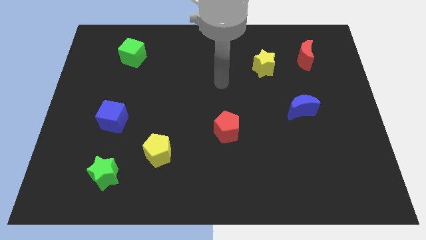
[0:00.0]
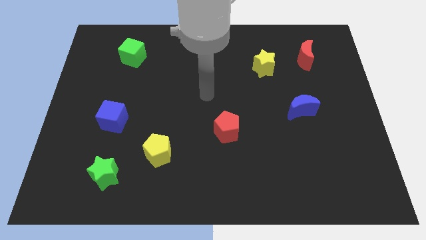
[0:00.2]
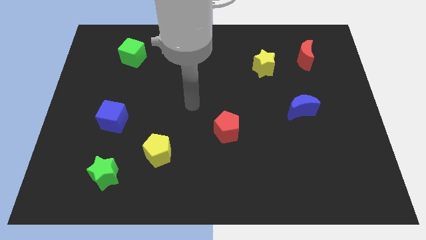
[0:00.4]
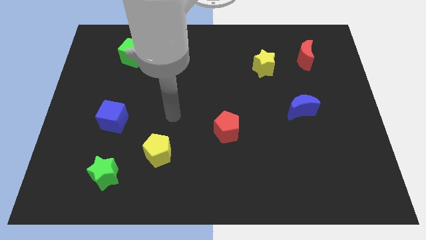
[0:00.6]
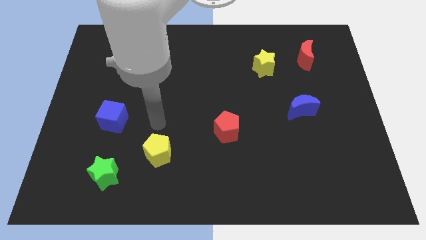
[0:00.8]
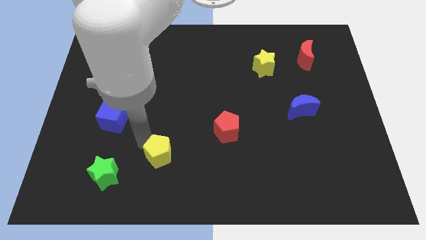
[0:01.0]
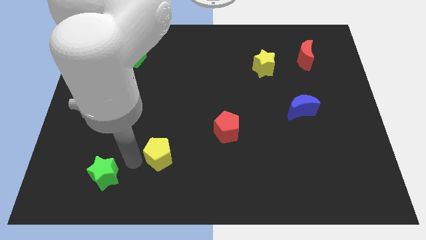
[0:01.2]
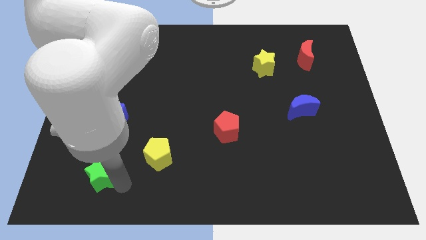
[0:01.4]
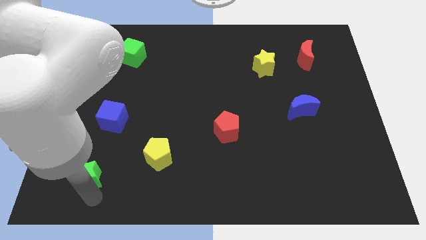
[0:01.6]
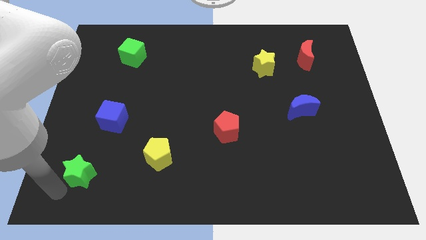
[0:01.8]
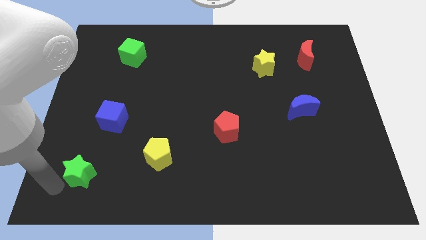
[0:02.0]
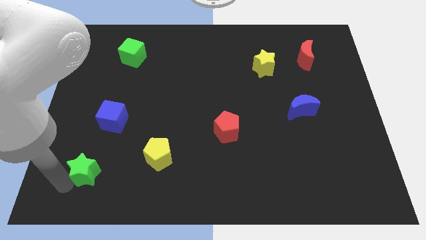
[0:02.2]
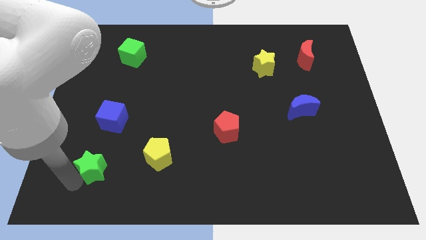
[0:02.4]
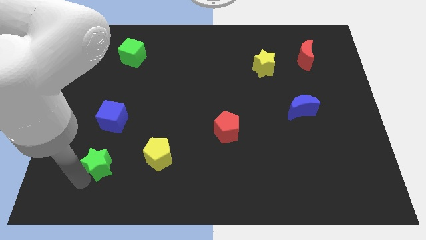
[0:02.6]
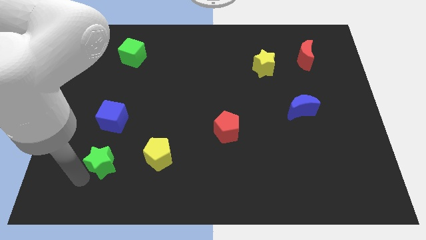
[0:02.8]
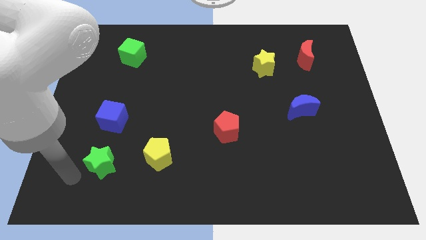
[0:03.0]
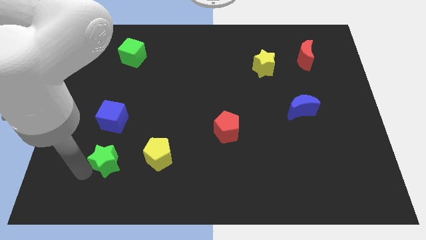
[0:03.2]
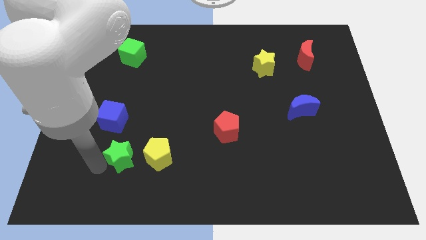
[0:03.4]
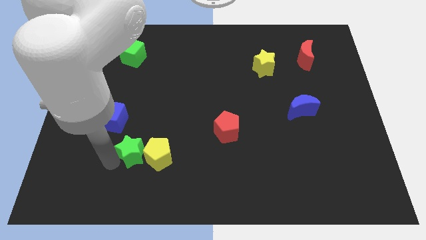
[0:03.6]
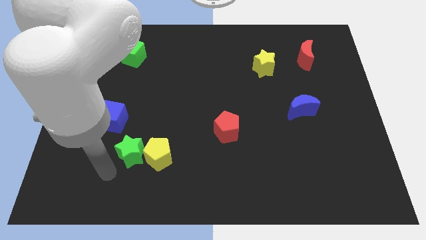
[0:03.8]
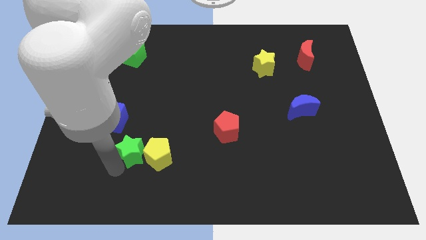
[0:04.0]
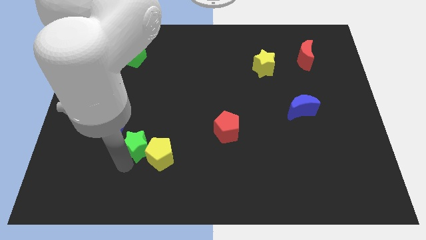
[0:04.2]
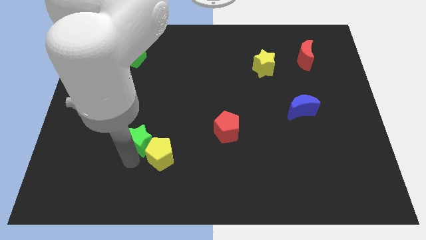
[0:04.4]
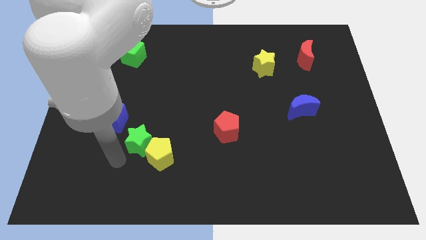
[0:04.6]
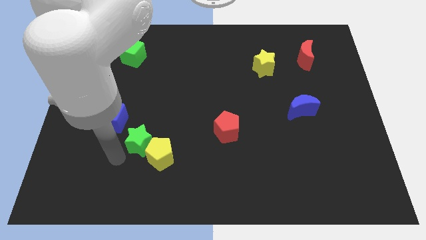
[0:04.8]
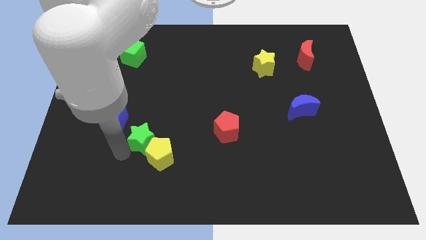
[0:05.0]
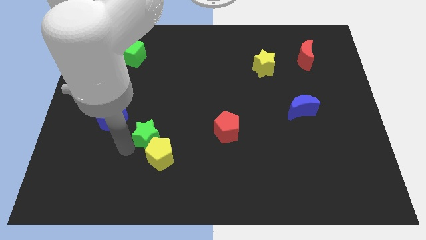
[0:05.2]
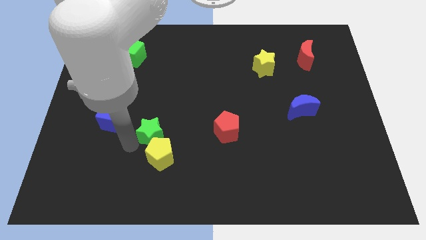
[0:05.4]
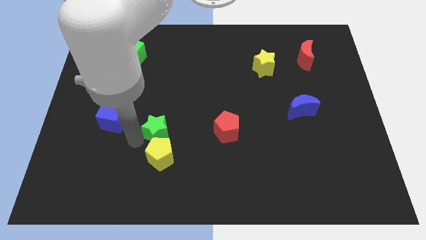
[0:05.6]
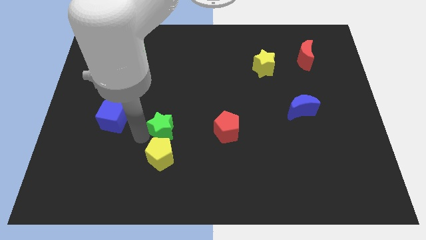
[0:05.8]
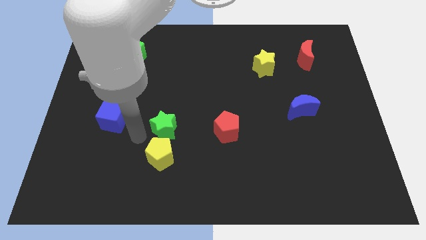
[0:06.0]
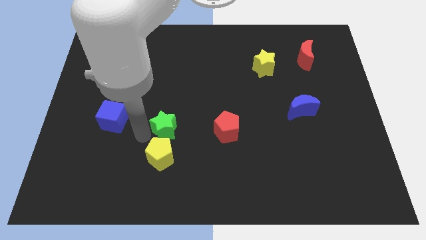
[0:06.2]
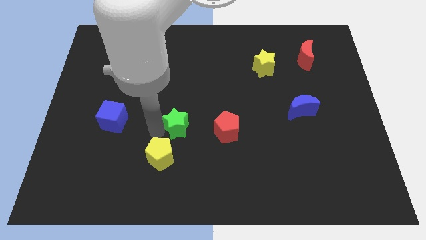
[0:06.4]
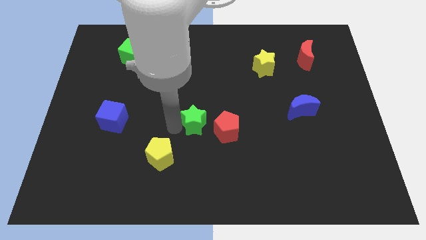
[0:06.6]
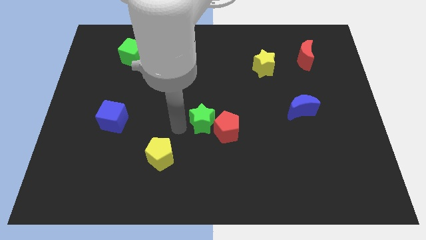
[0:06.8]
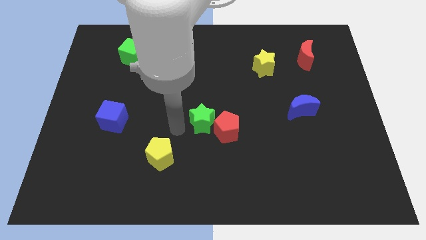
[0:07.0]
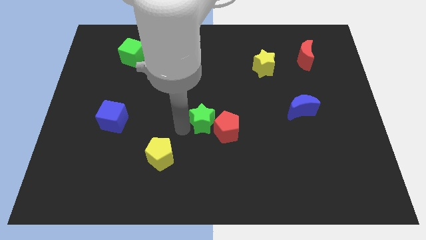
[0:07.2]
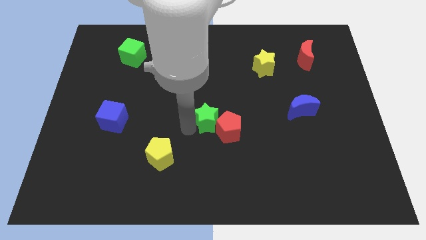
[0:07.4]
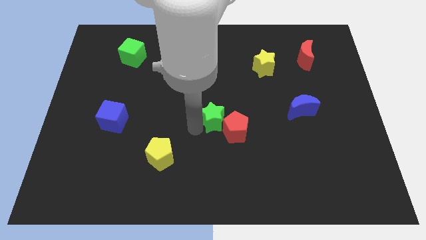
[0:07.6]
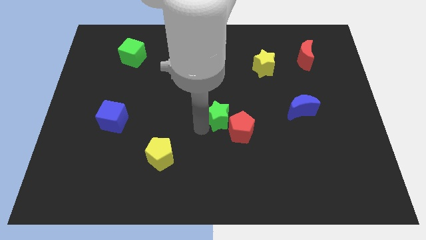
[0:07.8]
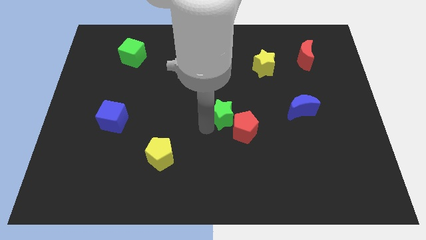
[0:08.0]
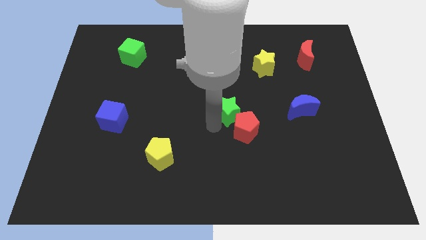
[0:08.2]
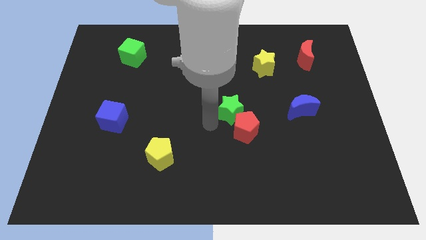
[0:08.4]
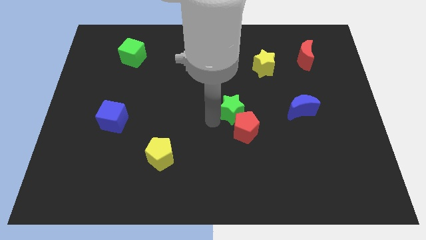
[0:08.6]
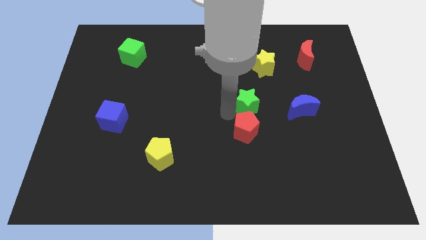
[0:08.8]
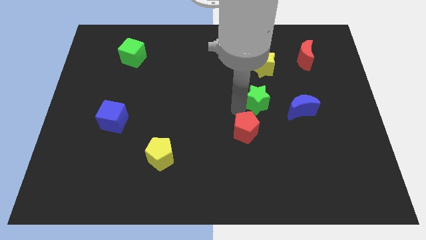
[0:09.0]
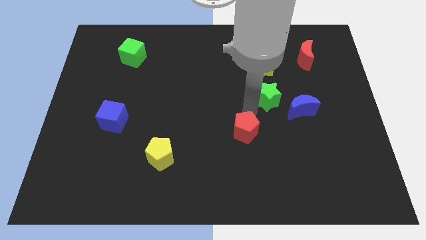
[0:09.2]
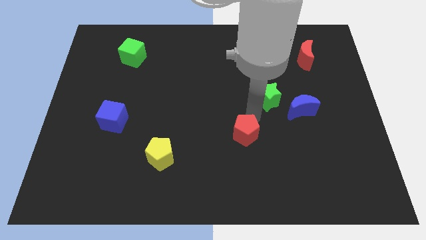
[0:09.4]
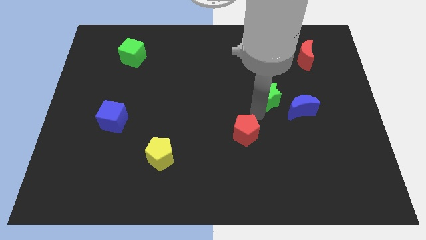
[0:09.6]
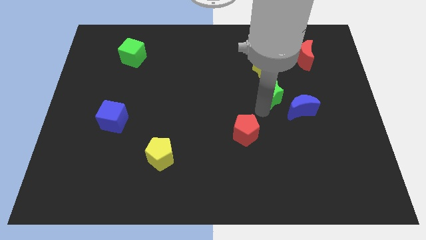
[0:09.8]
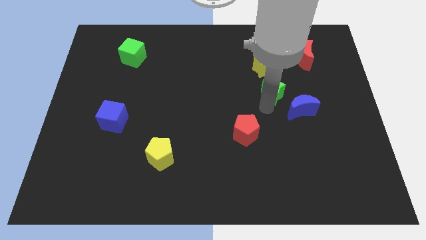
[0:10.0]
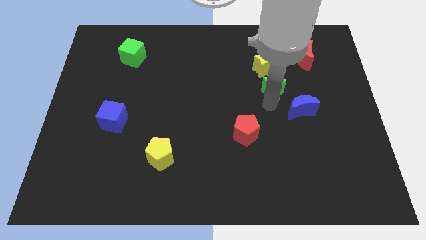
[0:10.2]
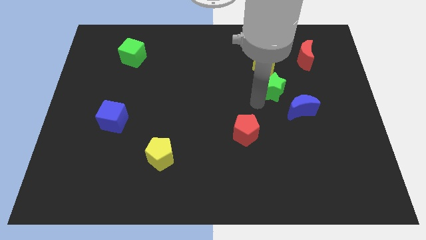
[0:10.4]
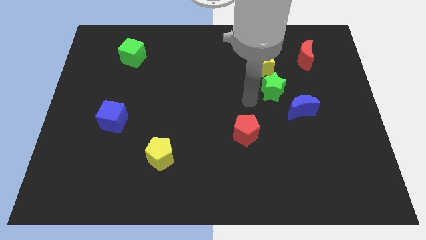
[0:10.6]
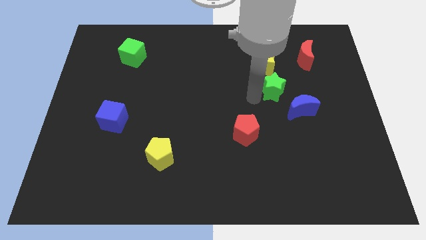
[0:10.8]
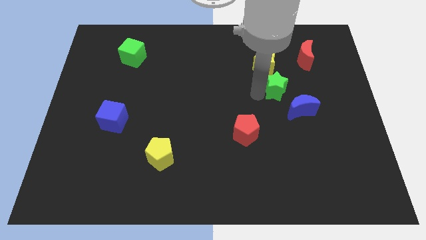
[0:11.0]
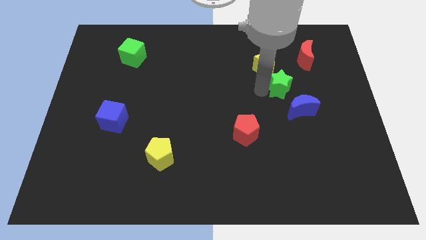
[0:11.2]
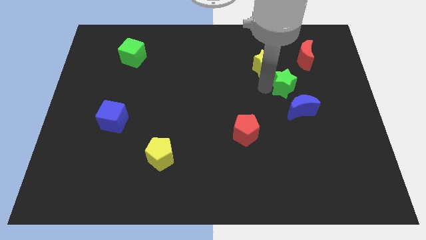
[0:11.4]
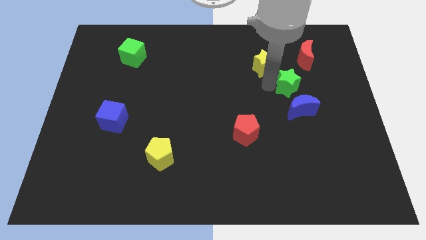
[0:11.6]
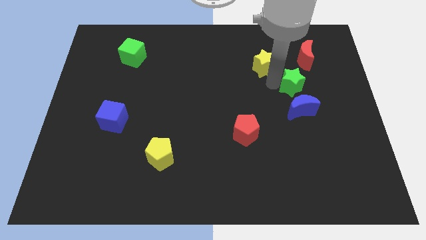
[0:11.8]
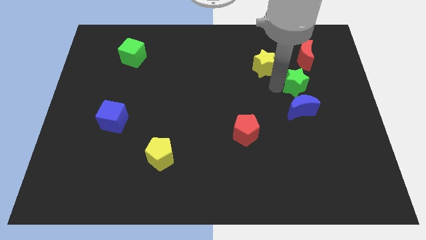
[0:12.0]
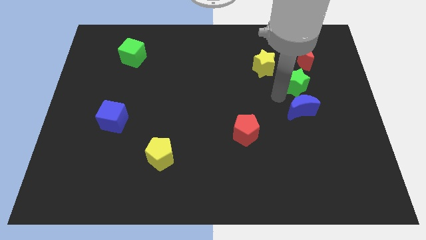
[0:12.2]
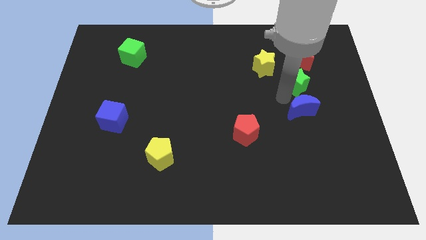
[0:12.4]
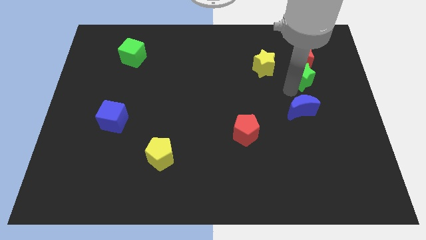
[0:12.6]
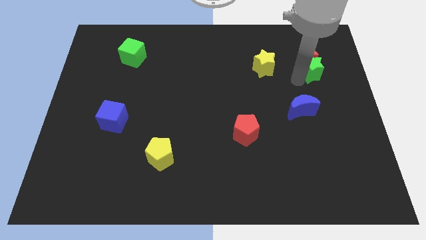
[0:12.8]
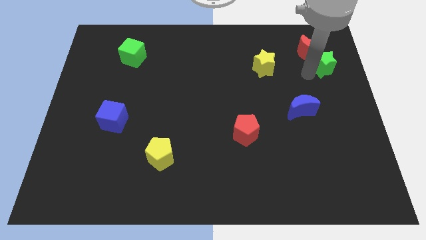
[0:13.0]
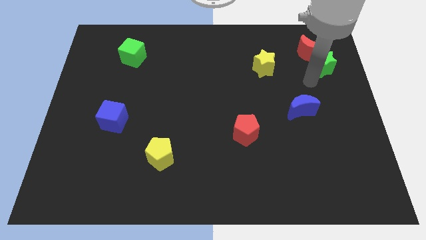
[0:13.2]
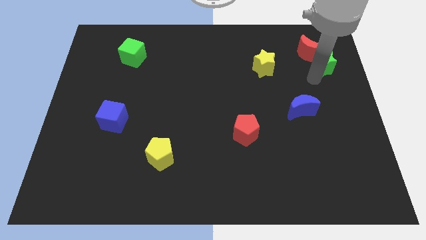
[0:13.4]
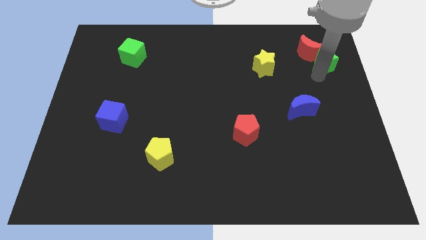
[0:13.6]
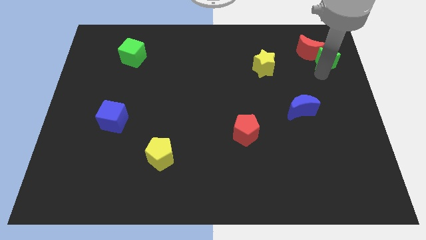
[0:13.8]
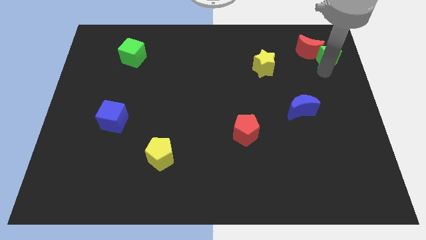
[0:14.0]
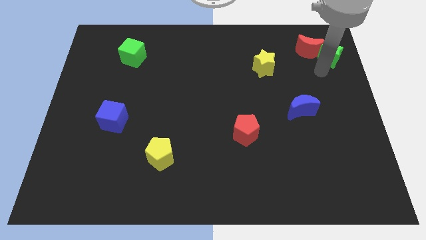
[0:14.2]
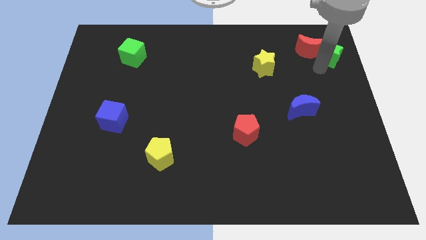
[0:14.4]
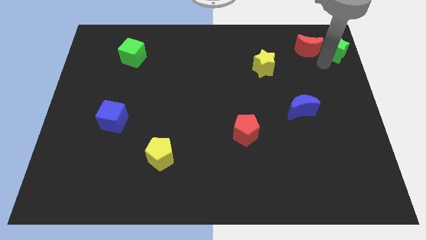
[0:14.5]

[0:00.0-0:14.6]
put the green star to the top right of the board
